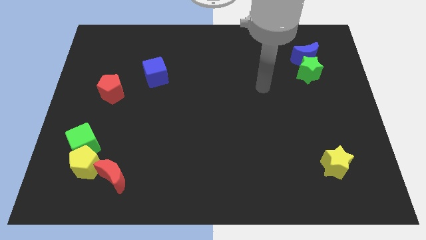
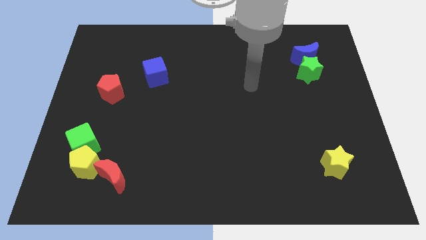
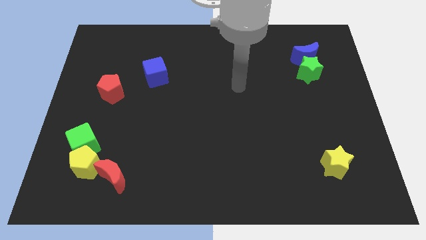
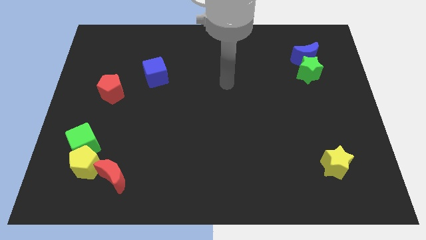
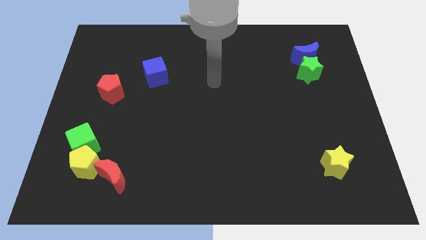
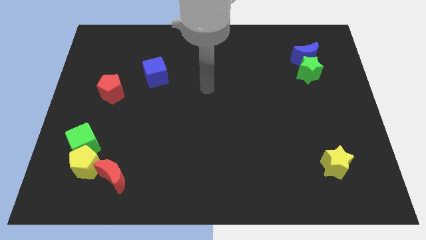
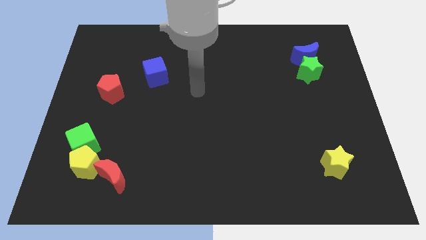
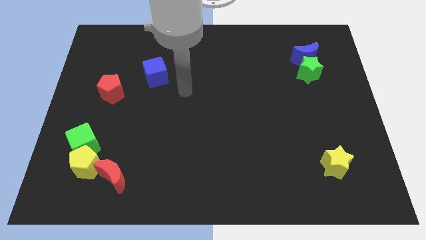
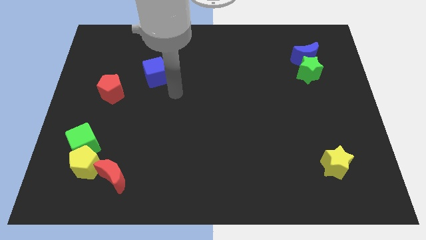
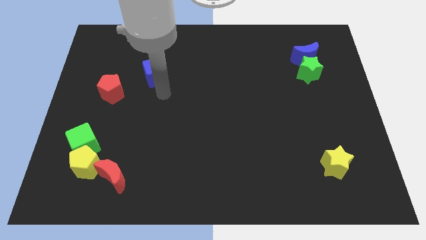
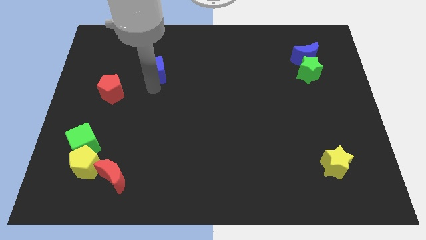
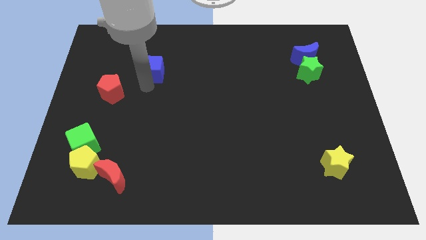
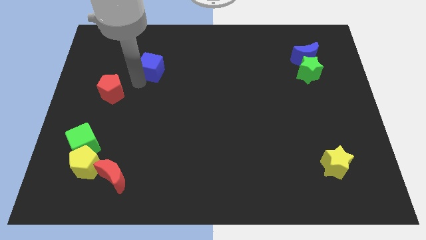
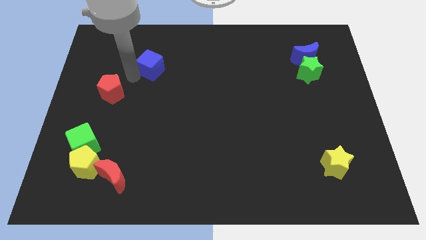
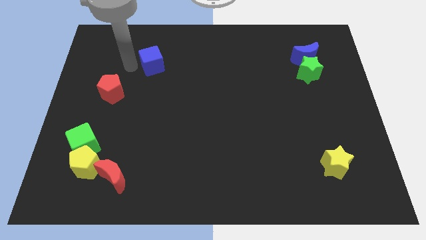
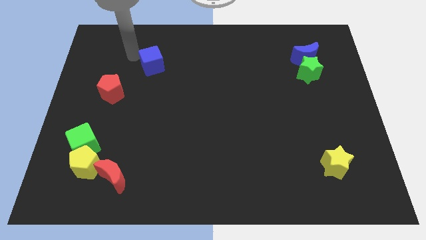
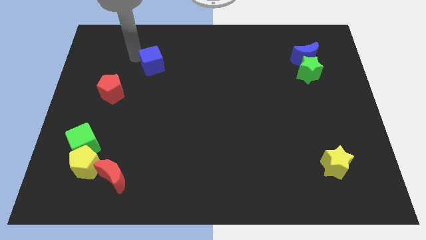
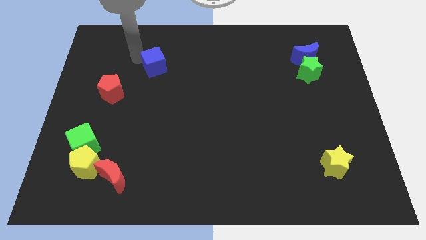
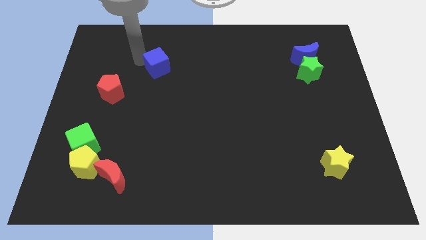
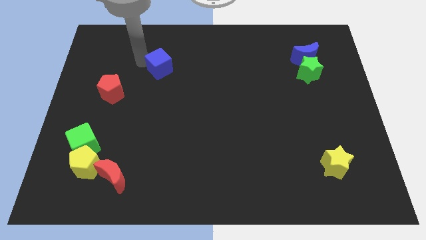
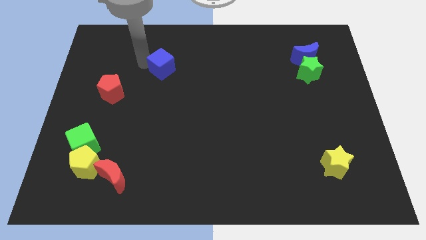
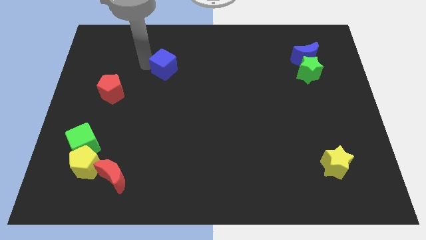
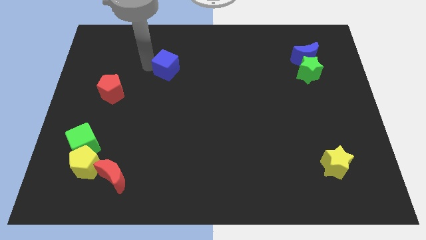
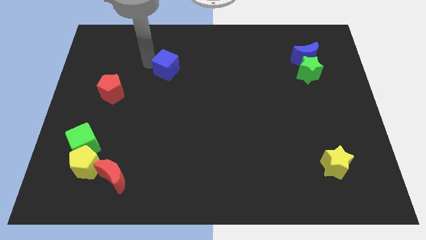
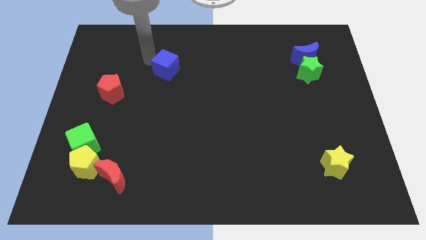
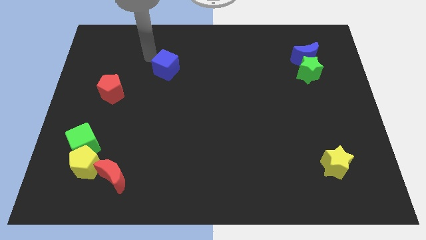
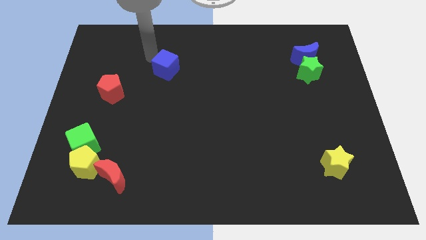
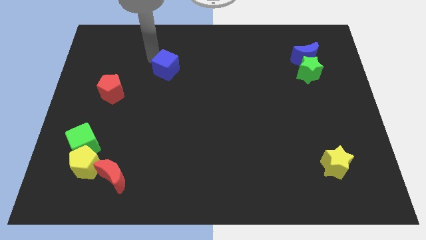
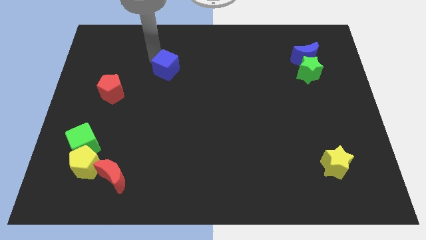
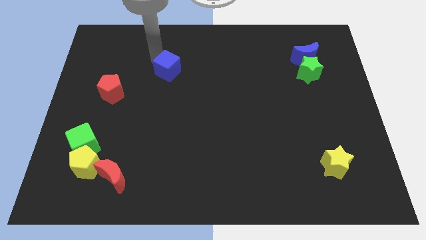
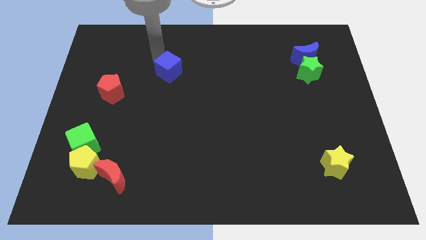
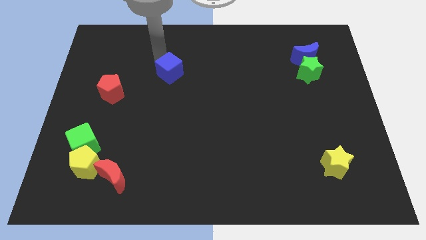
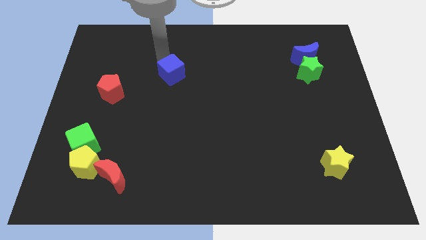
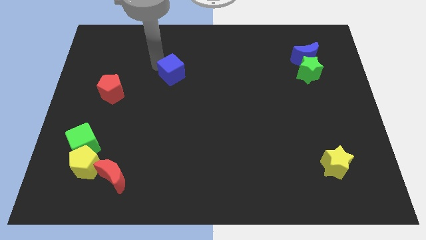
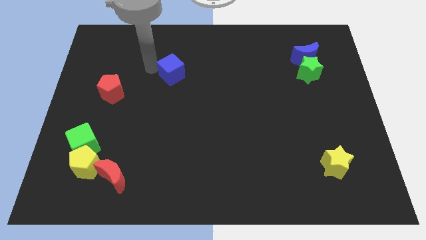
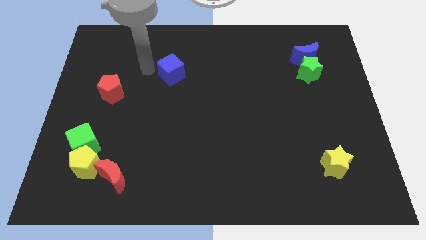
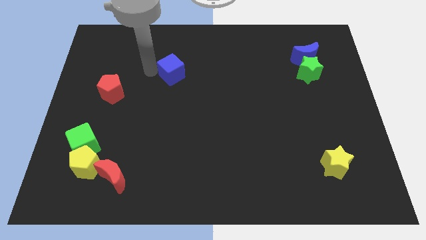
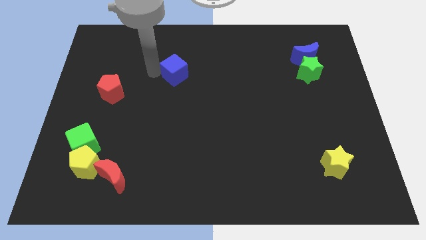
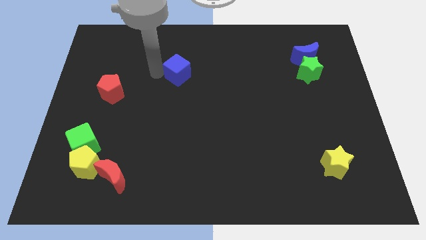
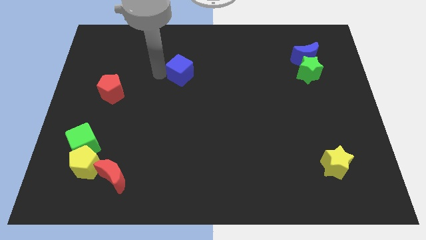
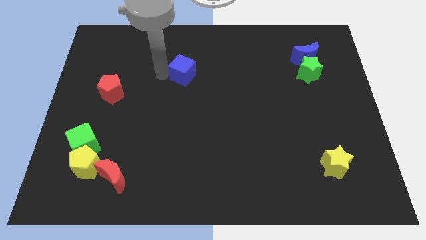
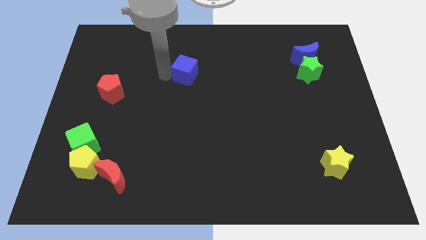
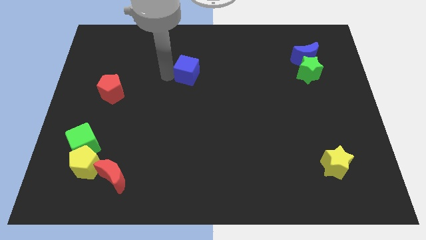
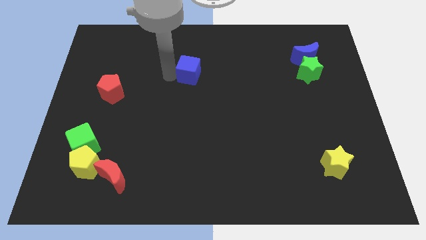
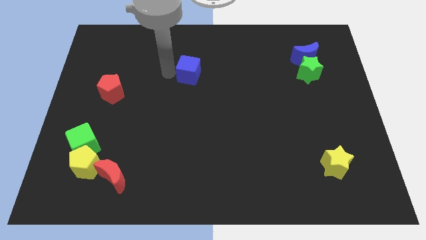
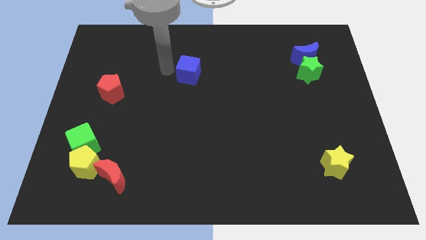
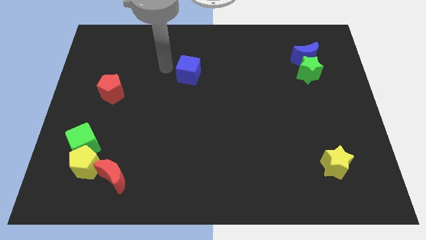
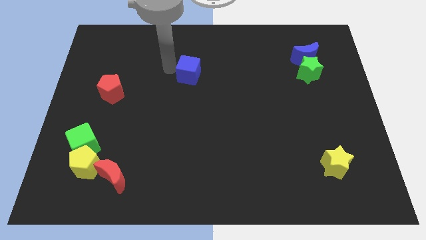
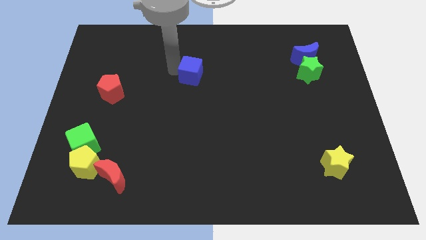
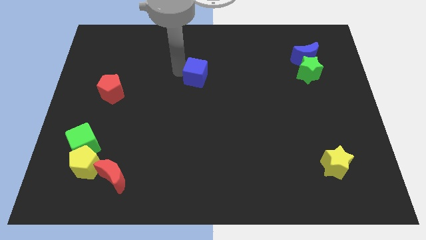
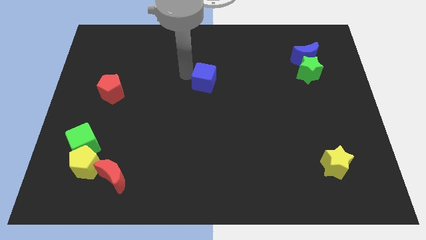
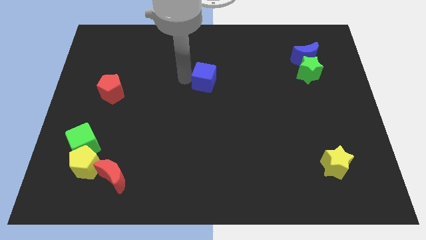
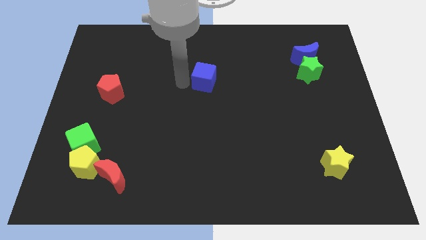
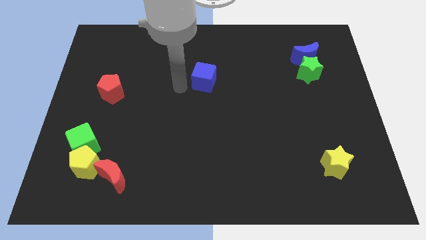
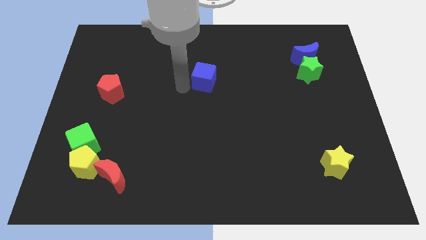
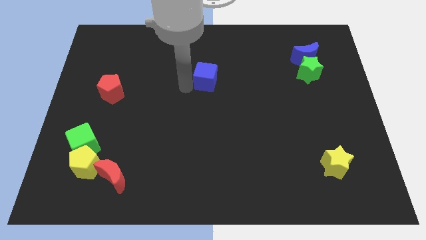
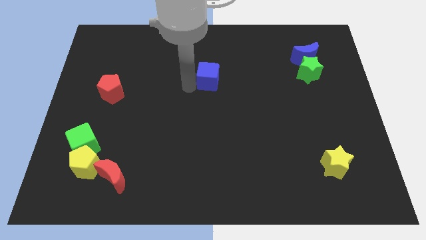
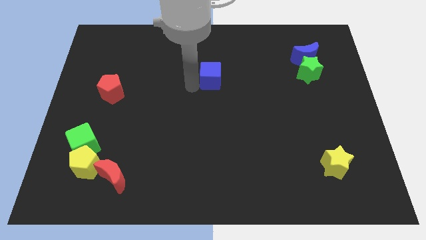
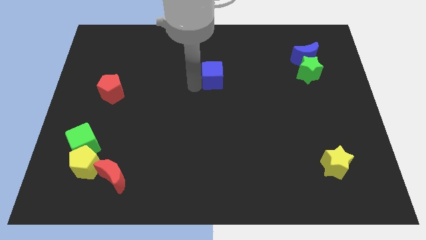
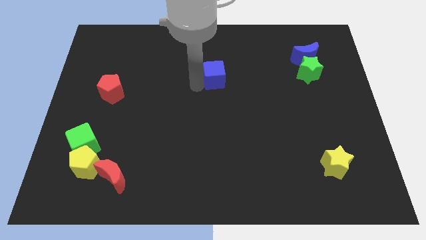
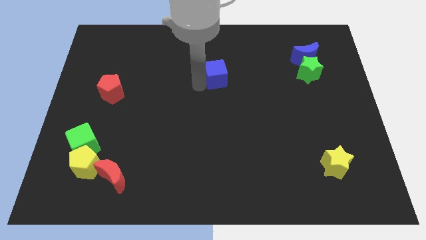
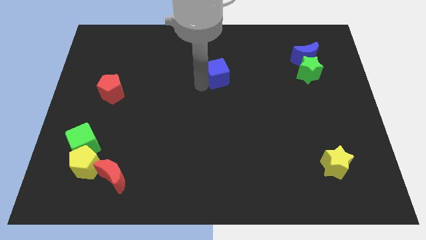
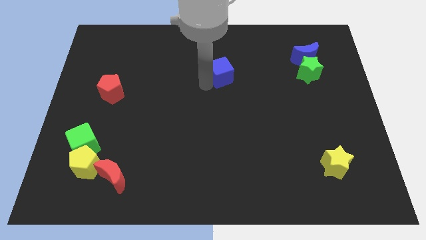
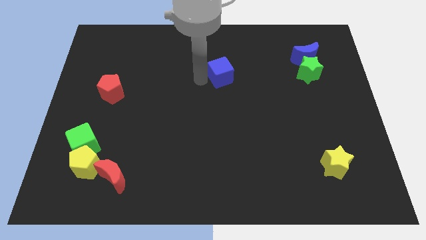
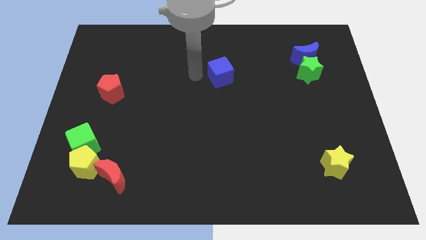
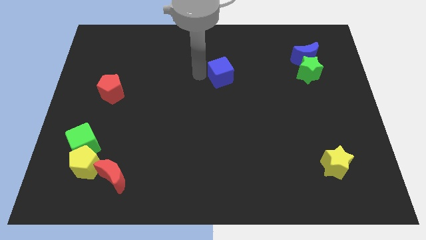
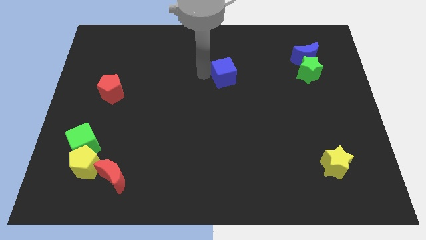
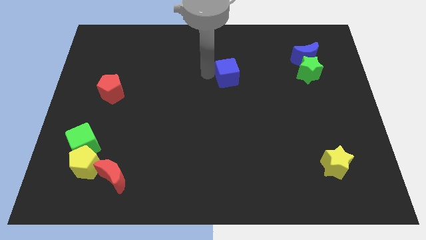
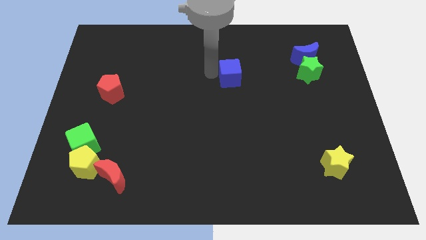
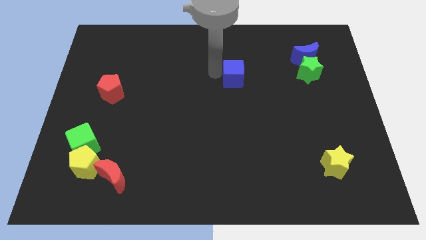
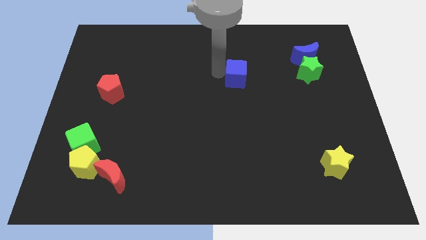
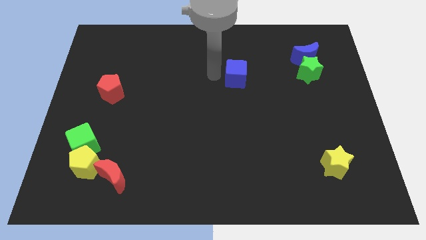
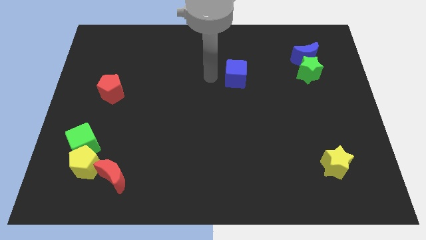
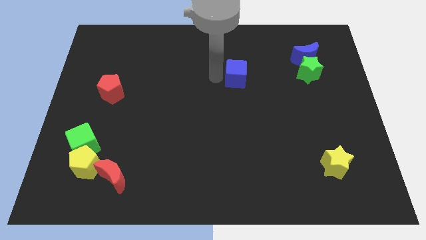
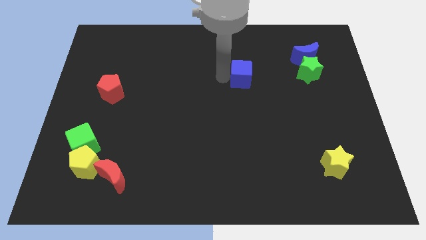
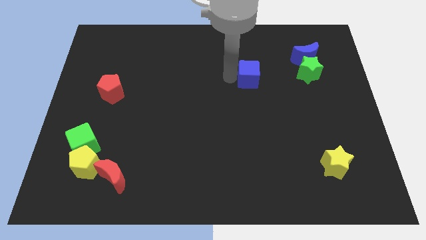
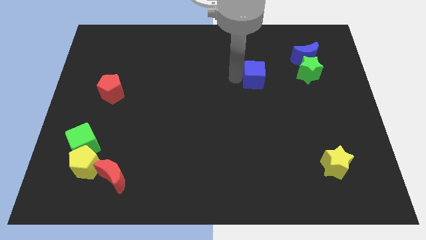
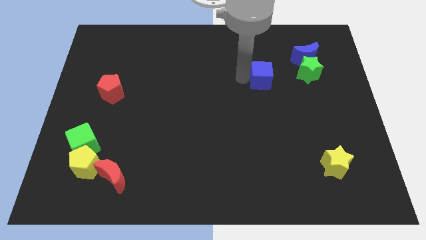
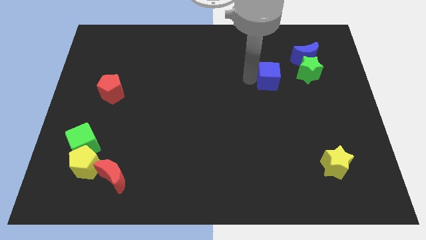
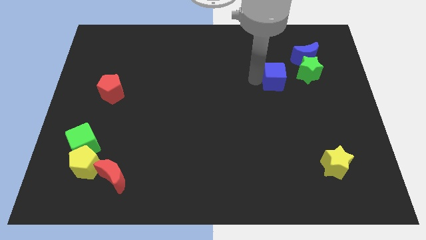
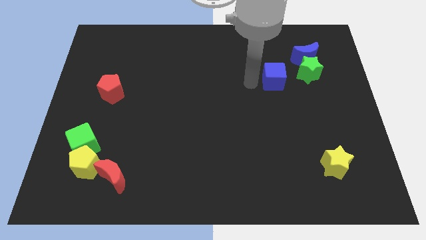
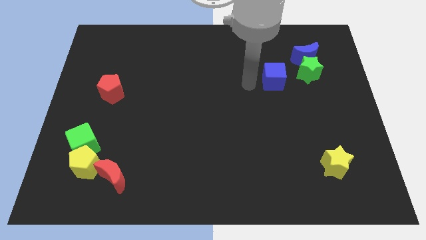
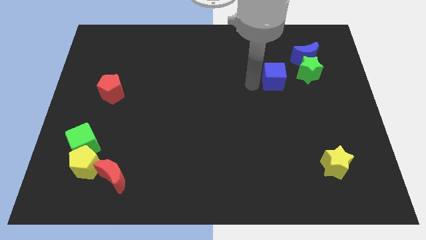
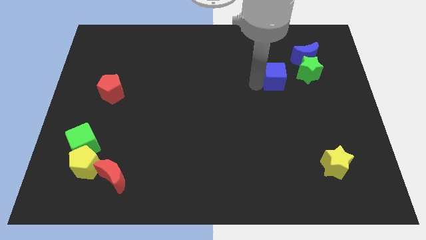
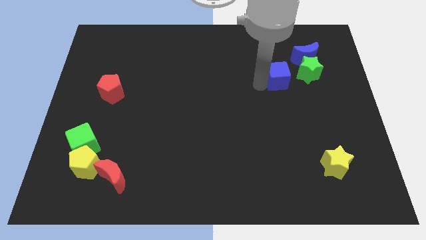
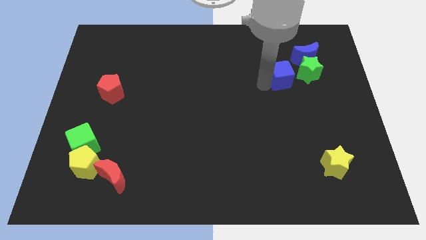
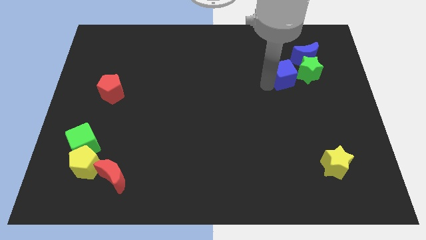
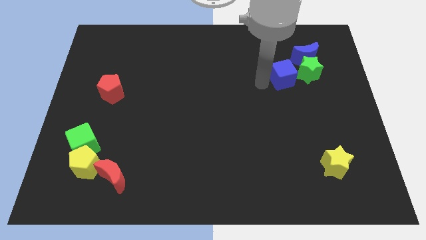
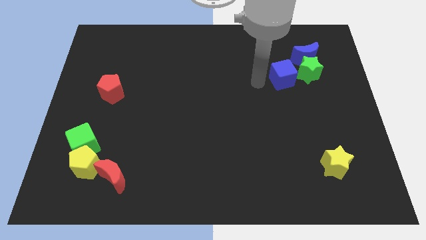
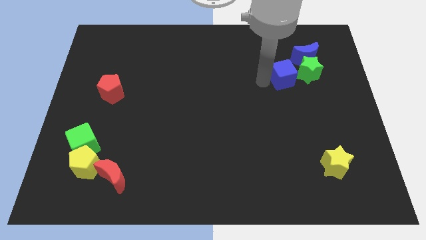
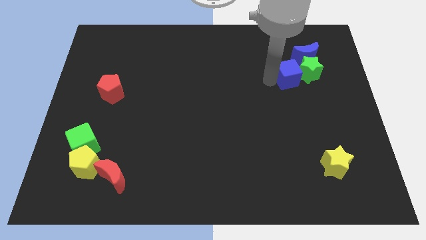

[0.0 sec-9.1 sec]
put the blue cube towards the green star
